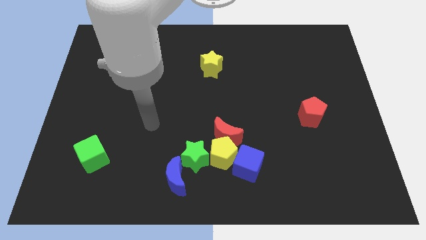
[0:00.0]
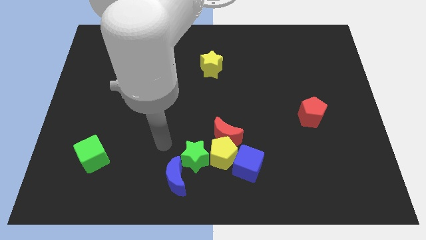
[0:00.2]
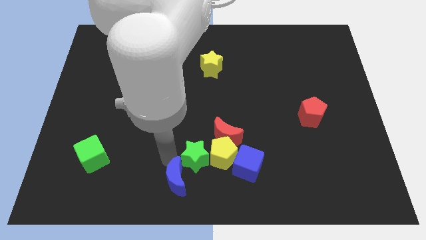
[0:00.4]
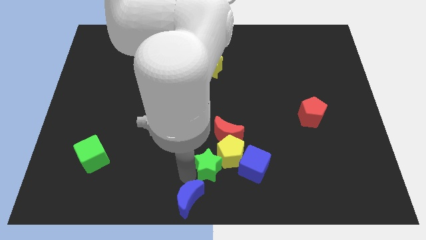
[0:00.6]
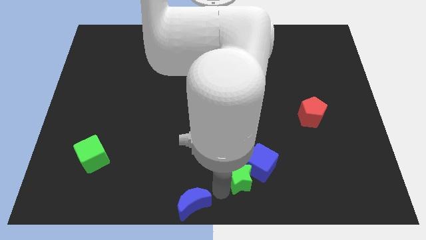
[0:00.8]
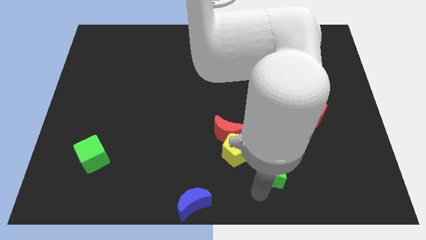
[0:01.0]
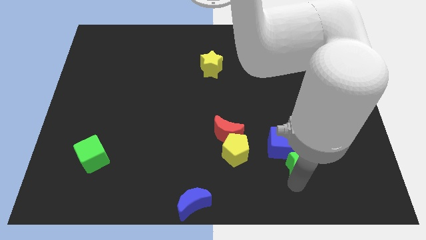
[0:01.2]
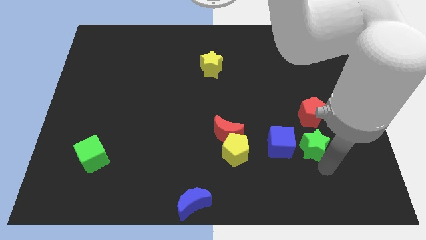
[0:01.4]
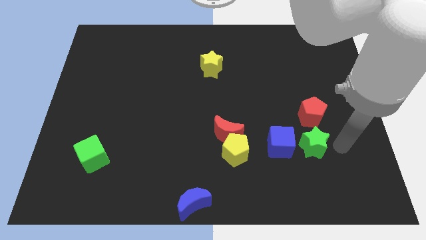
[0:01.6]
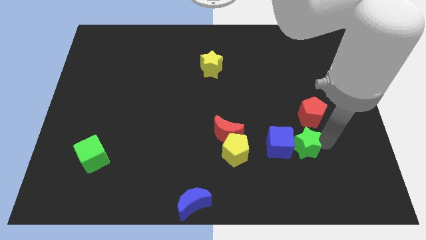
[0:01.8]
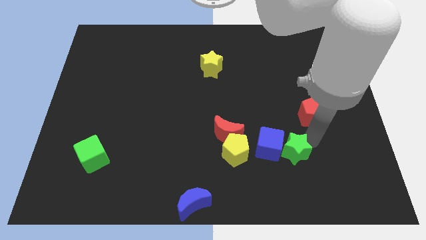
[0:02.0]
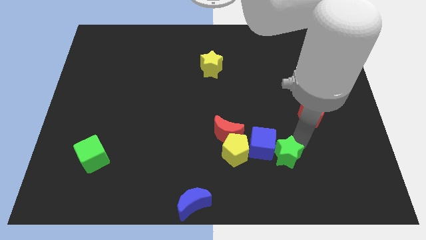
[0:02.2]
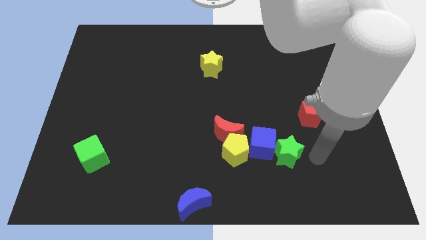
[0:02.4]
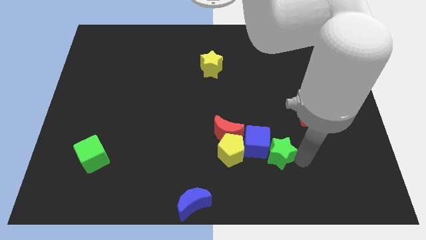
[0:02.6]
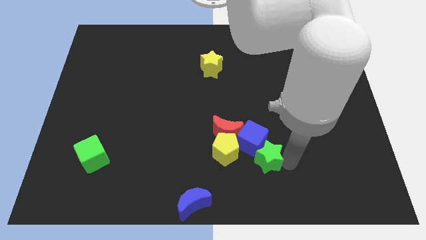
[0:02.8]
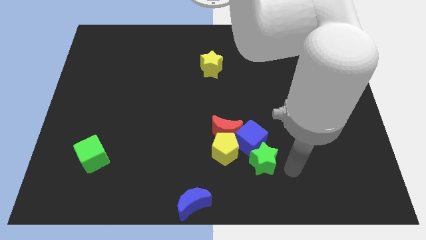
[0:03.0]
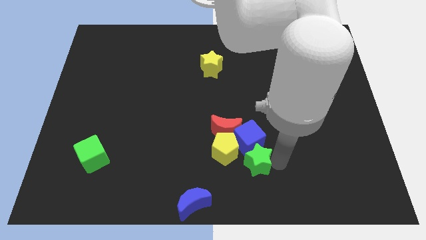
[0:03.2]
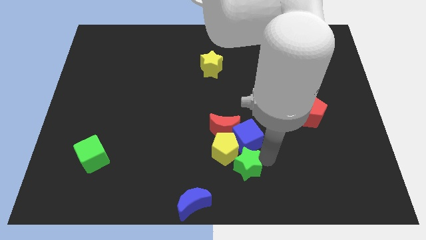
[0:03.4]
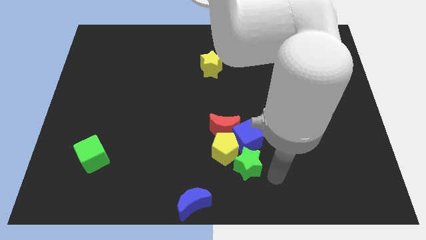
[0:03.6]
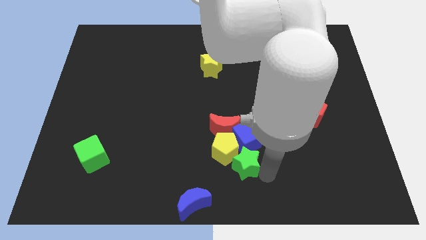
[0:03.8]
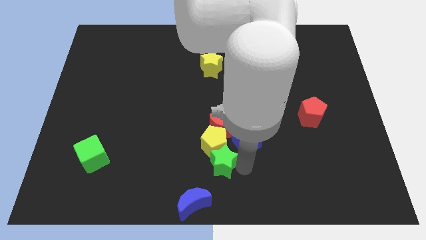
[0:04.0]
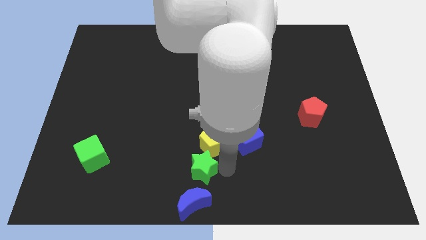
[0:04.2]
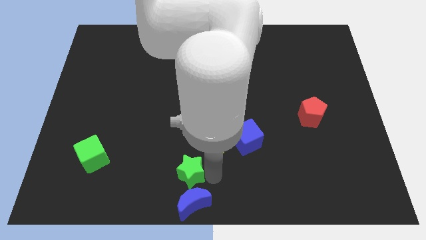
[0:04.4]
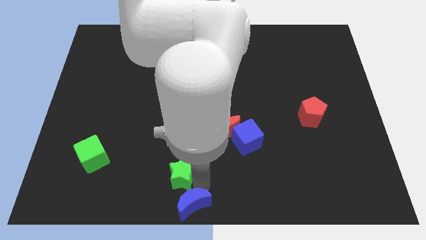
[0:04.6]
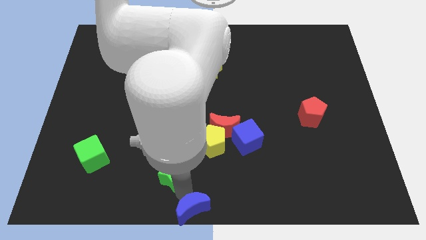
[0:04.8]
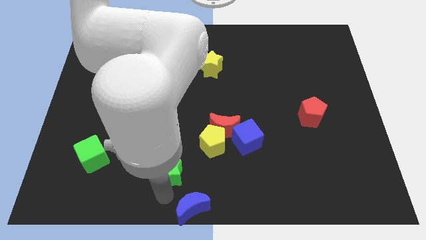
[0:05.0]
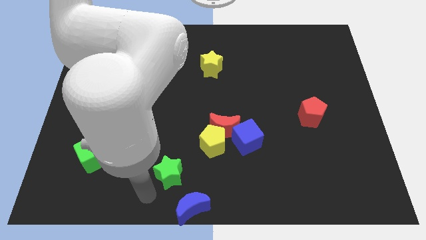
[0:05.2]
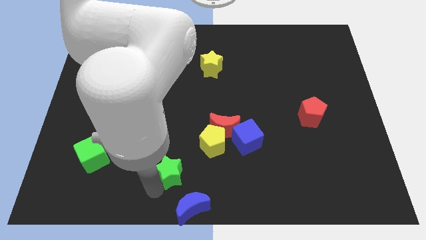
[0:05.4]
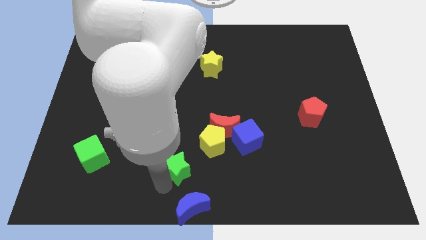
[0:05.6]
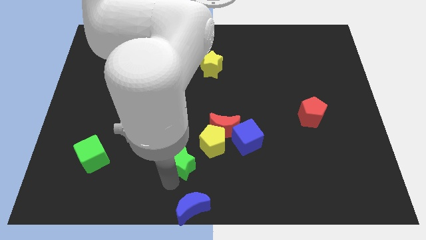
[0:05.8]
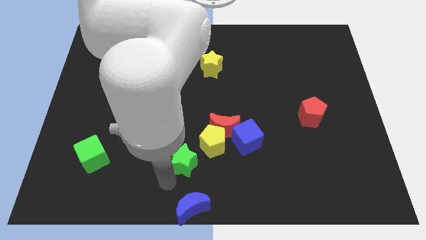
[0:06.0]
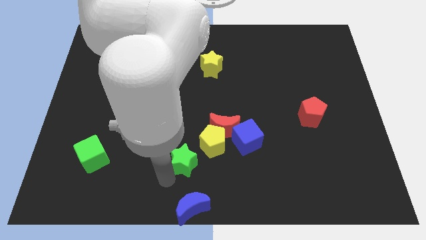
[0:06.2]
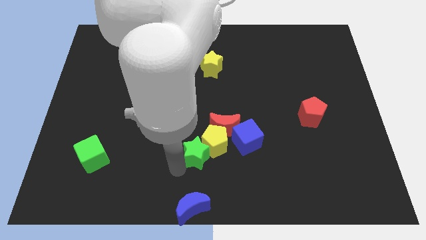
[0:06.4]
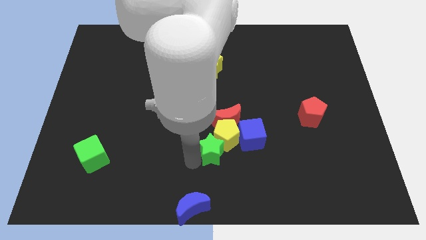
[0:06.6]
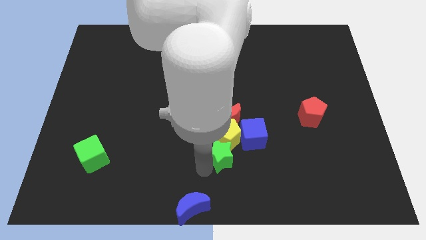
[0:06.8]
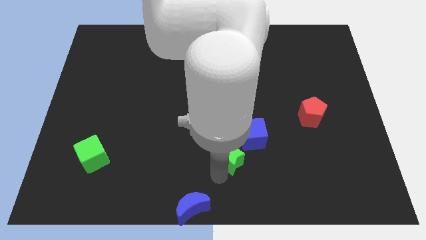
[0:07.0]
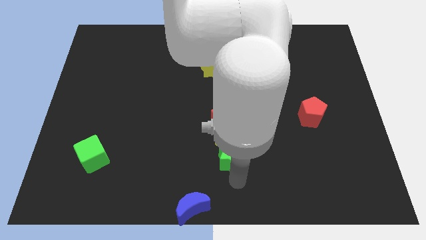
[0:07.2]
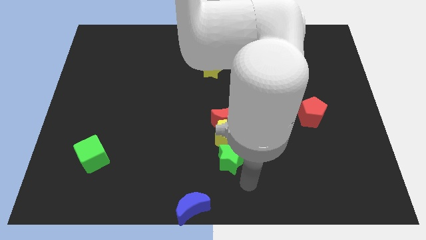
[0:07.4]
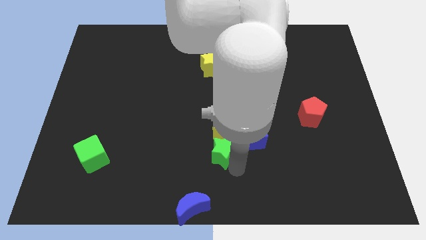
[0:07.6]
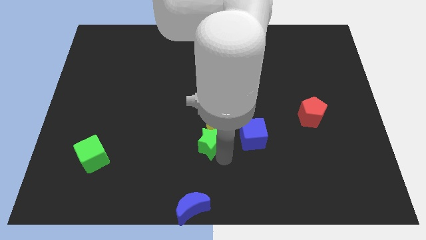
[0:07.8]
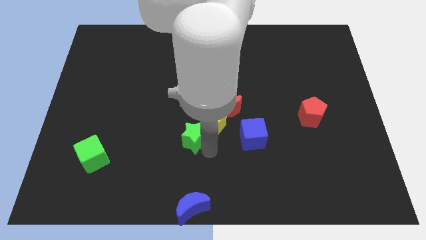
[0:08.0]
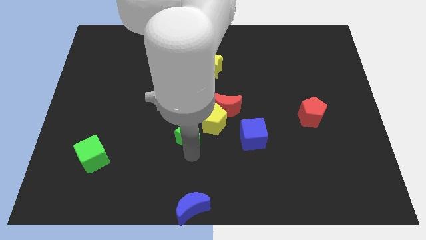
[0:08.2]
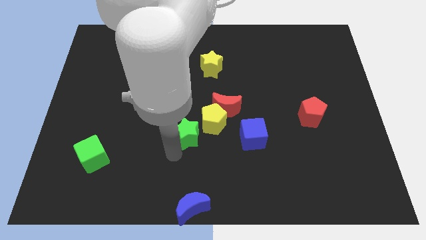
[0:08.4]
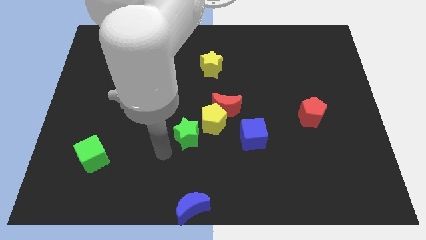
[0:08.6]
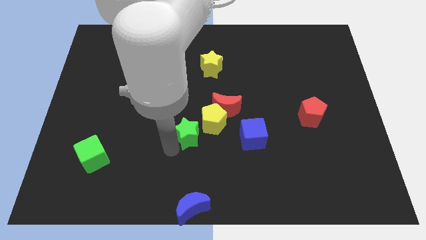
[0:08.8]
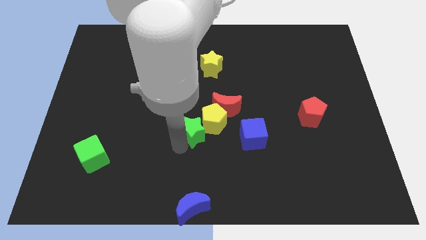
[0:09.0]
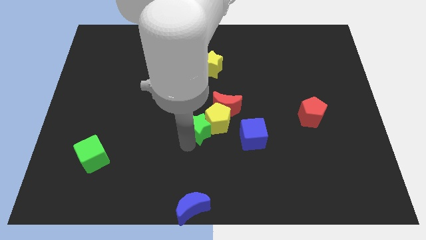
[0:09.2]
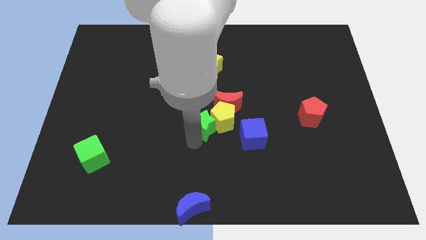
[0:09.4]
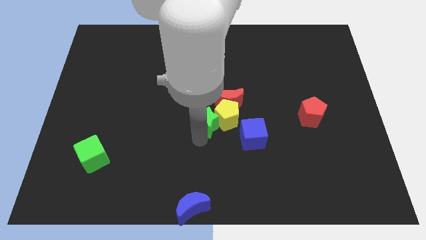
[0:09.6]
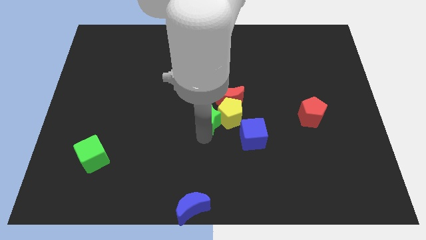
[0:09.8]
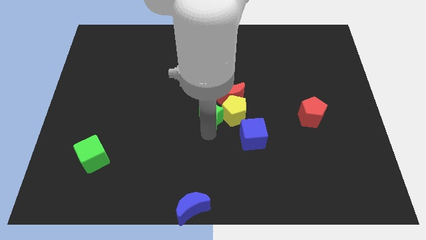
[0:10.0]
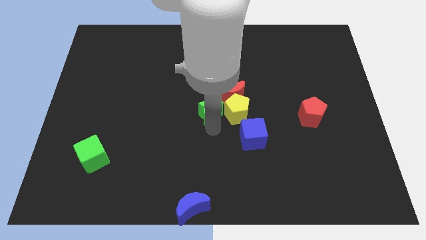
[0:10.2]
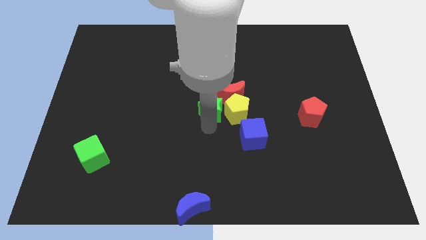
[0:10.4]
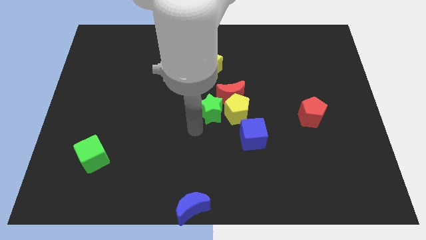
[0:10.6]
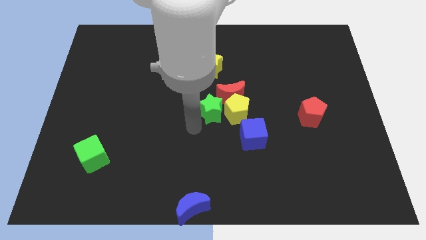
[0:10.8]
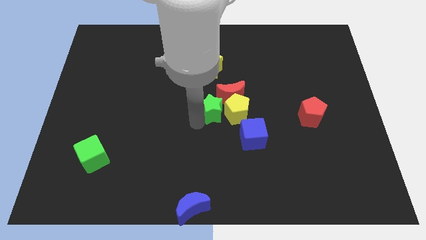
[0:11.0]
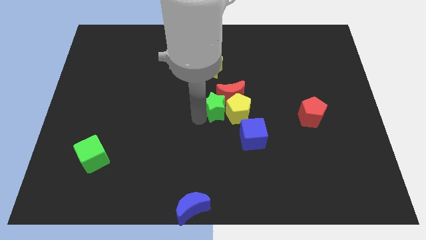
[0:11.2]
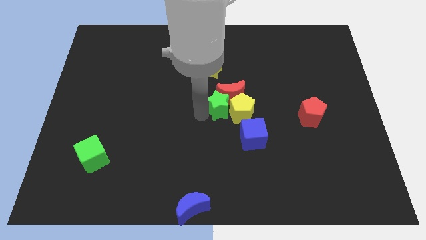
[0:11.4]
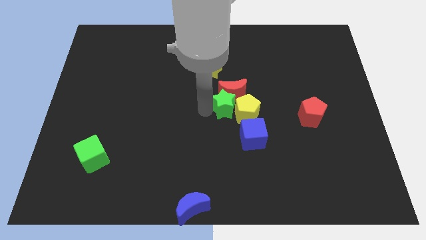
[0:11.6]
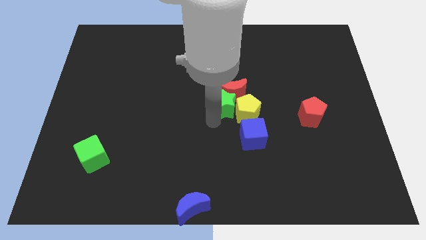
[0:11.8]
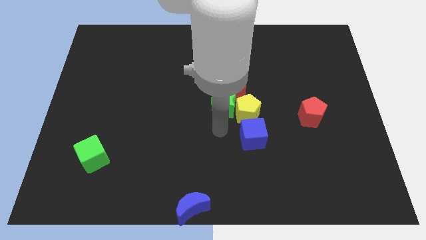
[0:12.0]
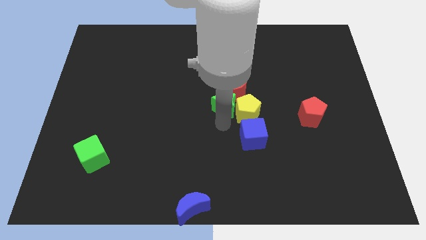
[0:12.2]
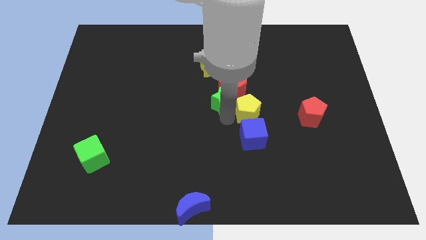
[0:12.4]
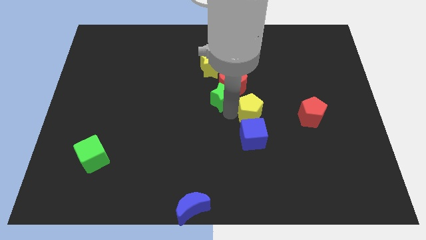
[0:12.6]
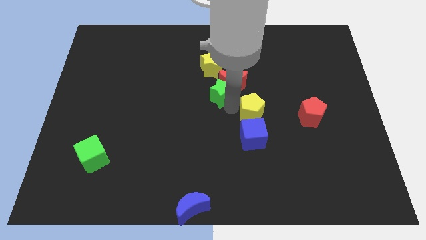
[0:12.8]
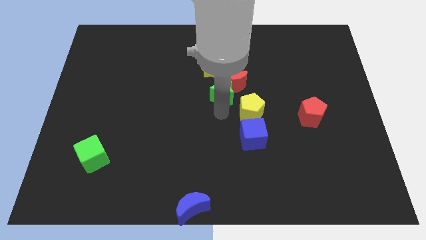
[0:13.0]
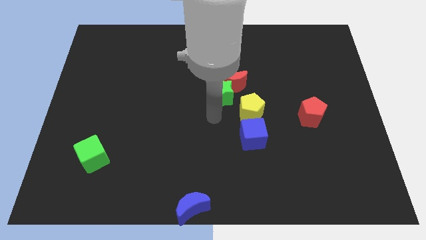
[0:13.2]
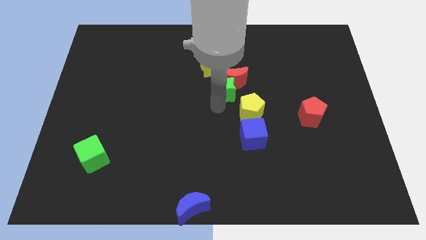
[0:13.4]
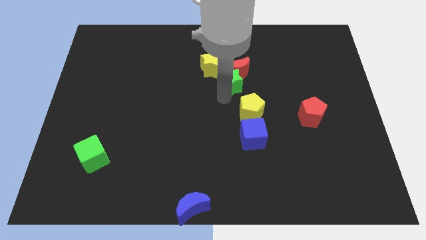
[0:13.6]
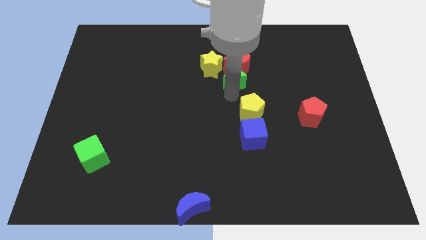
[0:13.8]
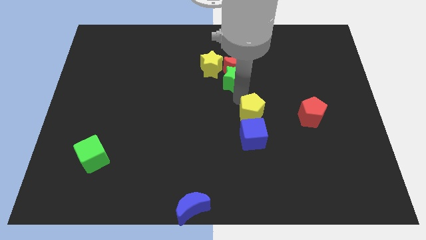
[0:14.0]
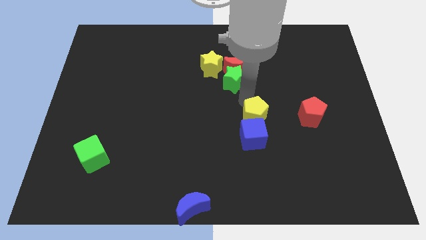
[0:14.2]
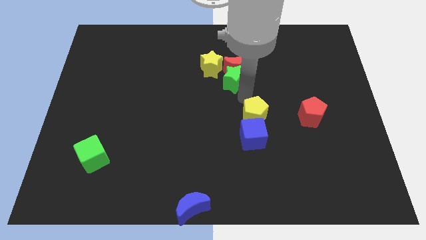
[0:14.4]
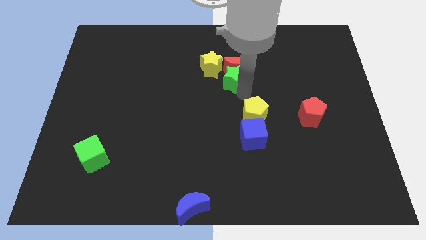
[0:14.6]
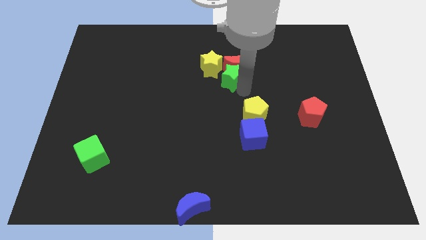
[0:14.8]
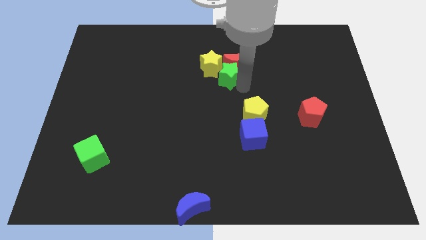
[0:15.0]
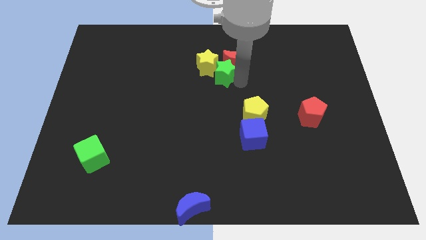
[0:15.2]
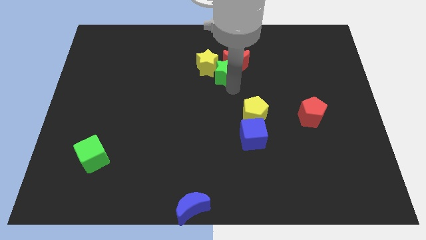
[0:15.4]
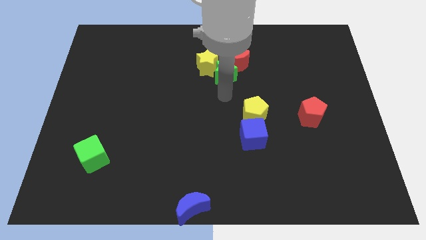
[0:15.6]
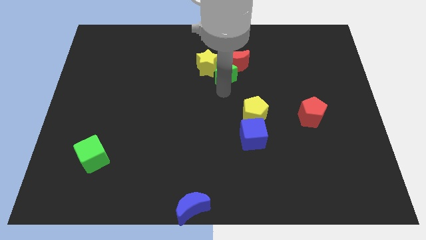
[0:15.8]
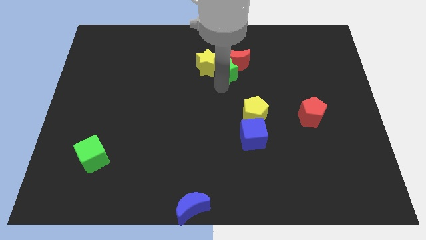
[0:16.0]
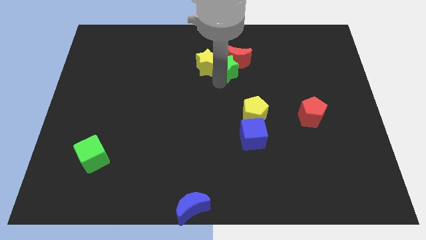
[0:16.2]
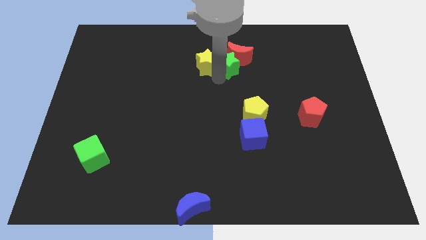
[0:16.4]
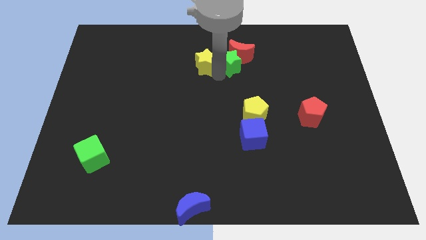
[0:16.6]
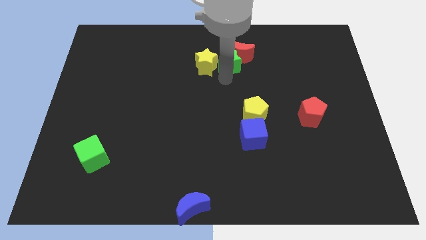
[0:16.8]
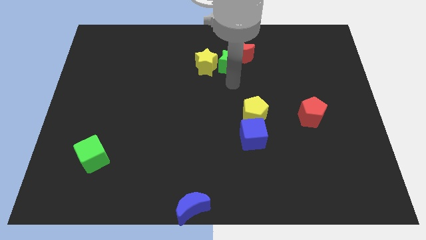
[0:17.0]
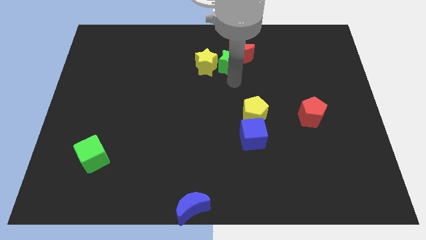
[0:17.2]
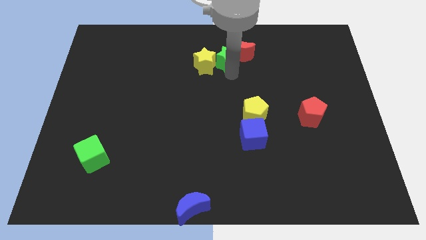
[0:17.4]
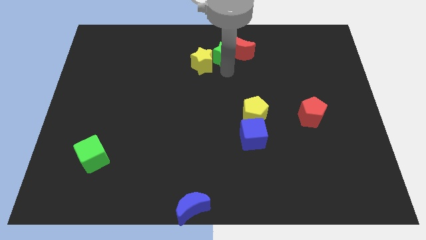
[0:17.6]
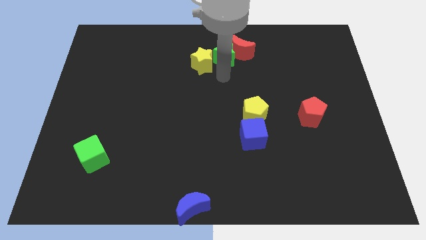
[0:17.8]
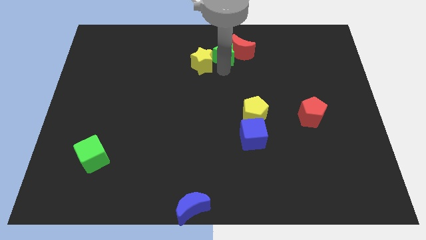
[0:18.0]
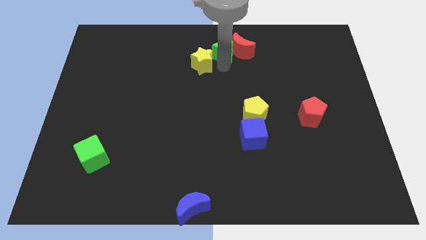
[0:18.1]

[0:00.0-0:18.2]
move the green star to the top
